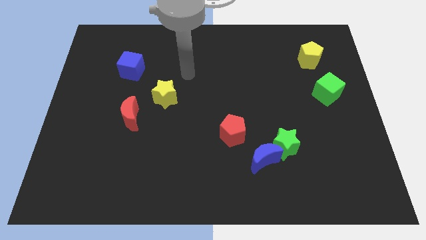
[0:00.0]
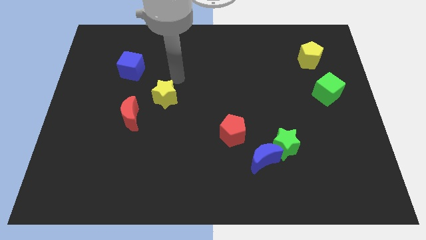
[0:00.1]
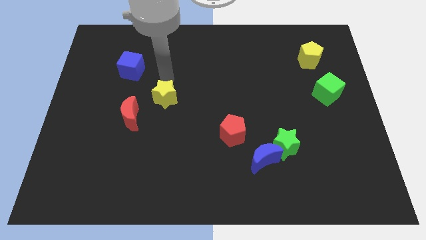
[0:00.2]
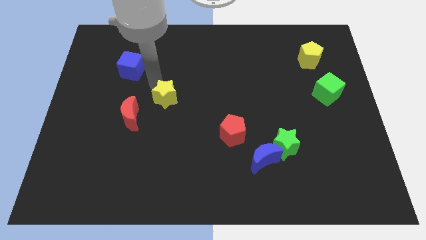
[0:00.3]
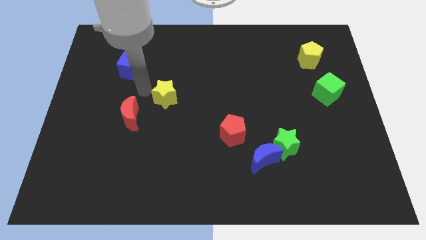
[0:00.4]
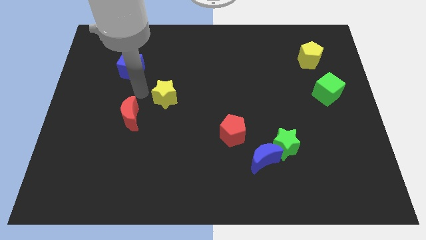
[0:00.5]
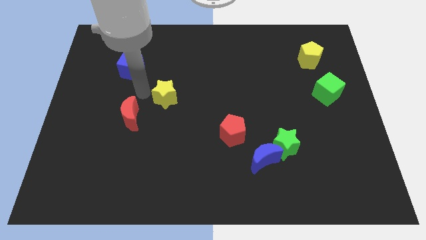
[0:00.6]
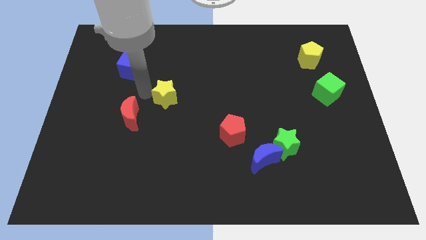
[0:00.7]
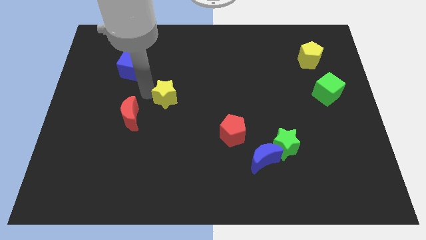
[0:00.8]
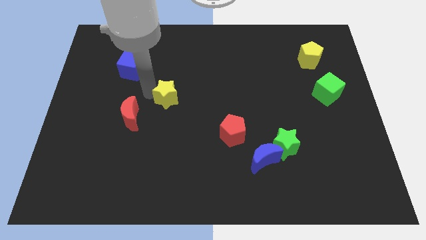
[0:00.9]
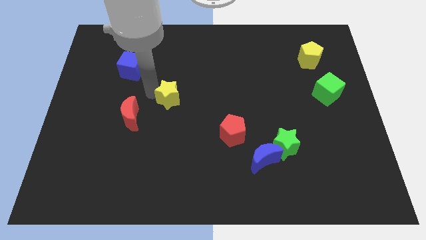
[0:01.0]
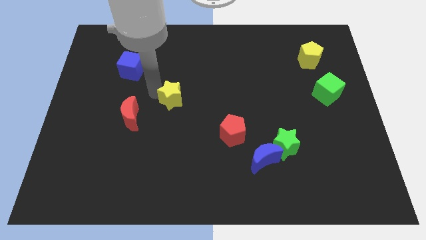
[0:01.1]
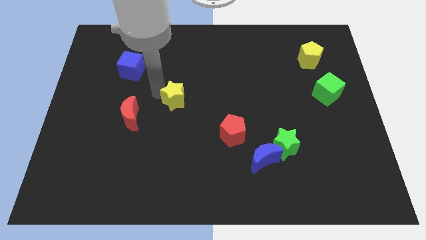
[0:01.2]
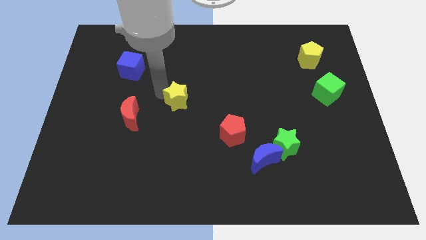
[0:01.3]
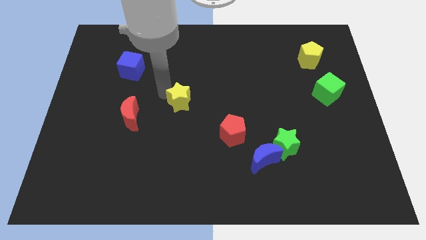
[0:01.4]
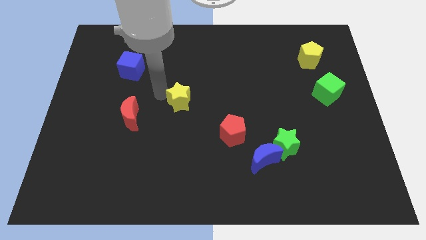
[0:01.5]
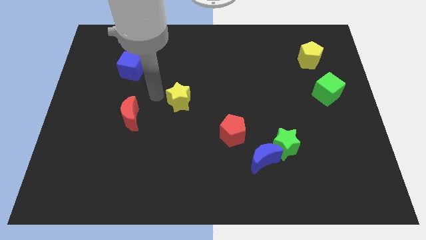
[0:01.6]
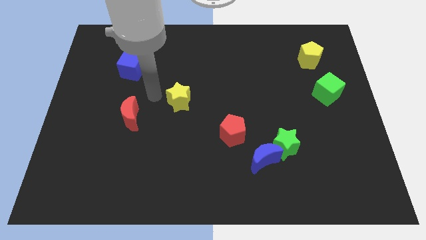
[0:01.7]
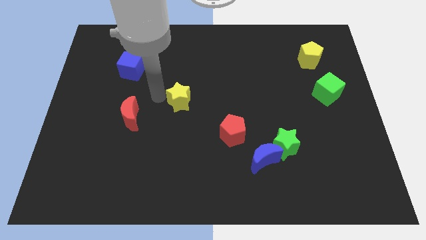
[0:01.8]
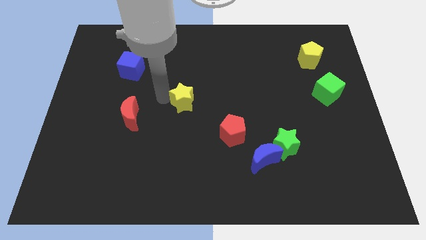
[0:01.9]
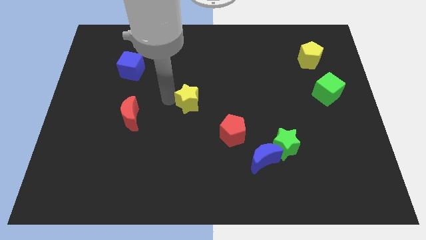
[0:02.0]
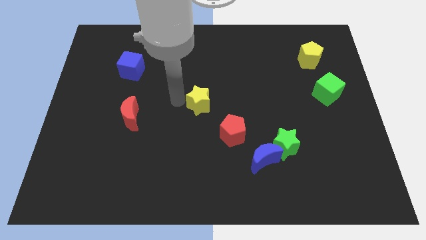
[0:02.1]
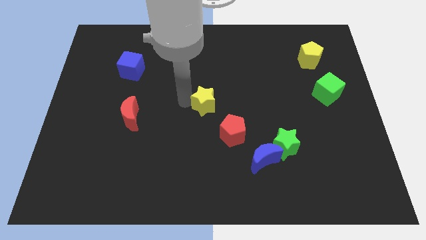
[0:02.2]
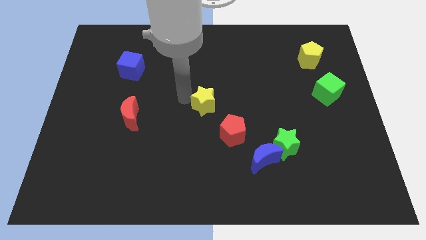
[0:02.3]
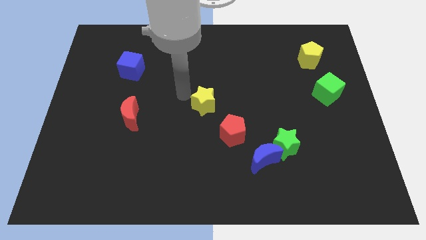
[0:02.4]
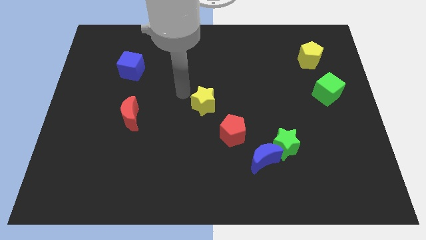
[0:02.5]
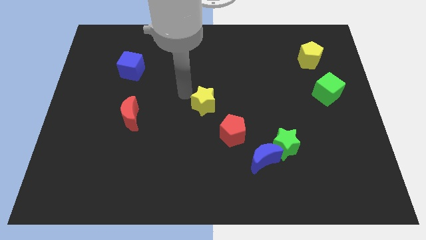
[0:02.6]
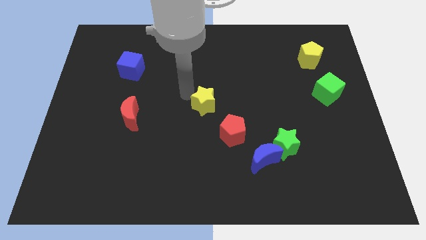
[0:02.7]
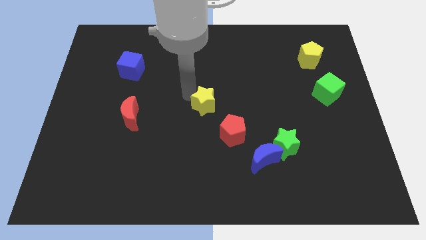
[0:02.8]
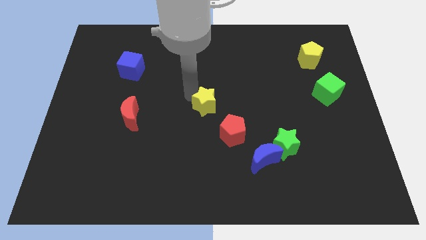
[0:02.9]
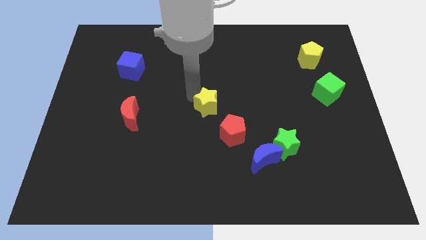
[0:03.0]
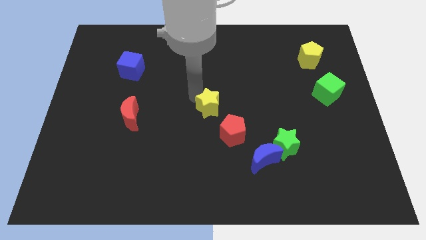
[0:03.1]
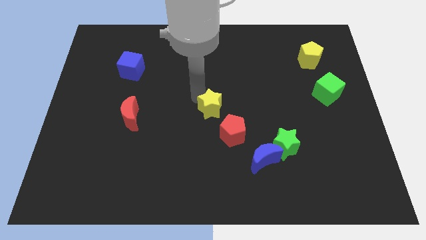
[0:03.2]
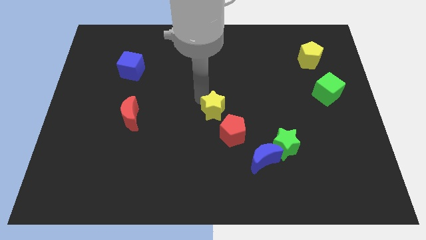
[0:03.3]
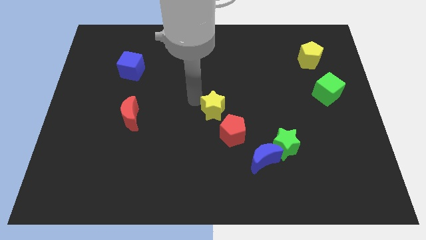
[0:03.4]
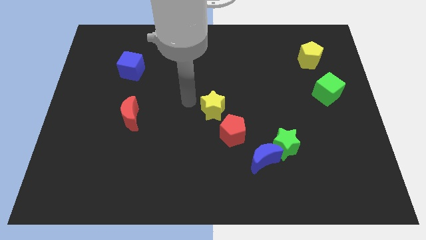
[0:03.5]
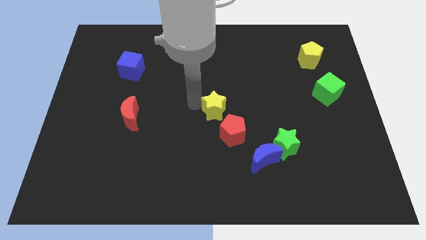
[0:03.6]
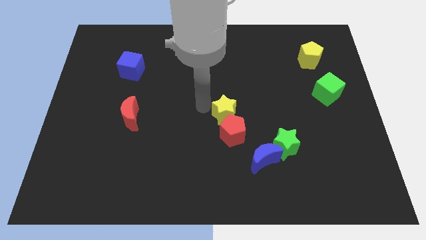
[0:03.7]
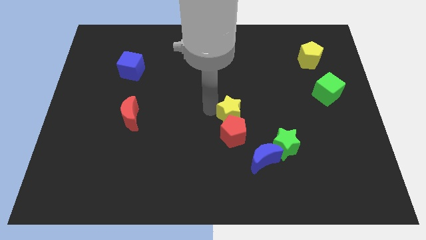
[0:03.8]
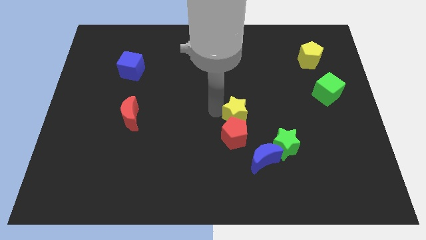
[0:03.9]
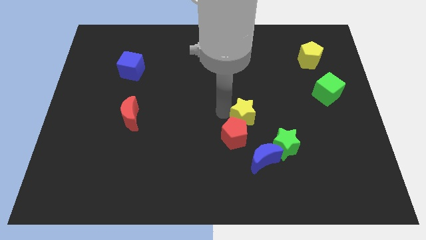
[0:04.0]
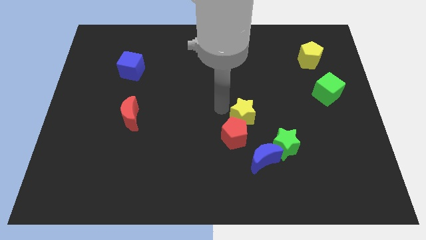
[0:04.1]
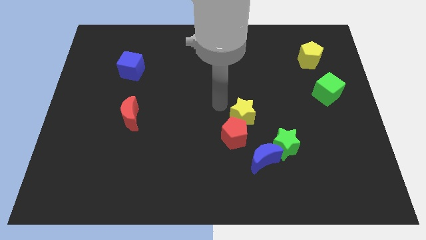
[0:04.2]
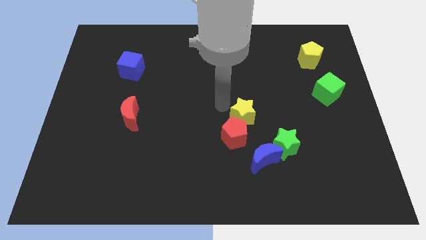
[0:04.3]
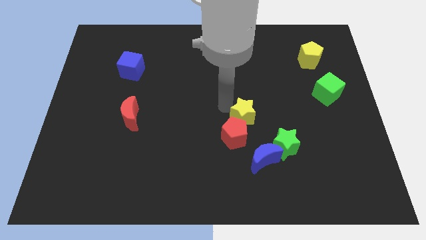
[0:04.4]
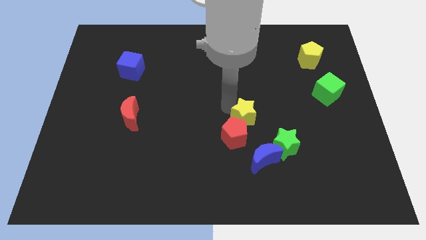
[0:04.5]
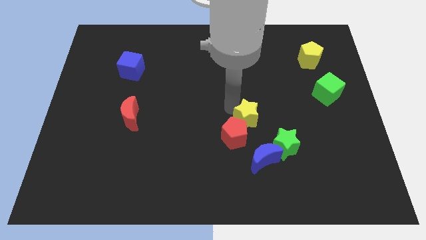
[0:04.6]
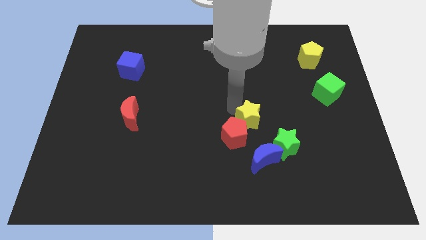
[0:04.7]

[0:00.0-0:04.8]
slide the yellow star just right of the red pentagon

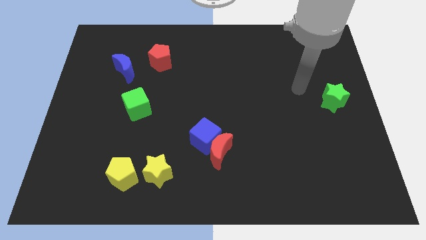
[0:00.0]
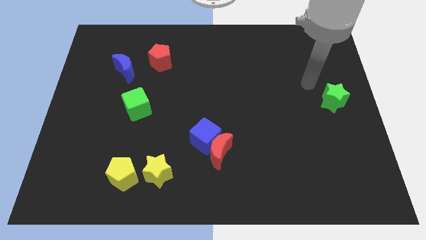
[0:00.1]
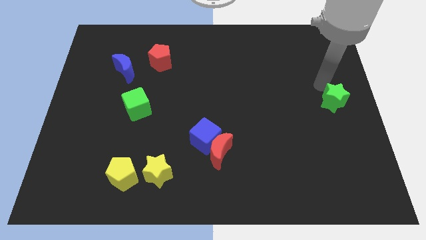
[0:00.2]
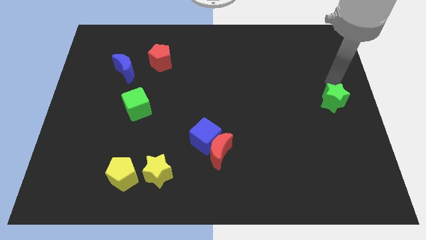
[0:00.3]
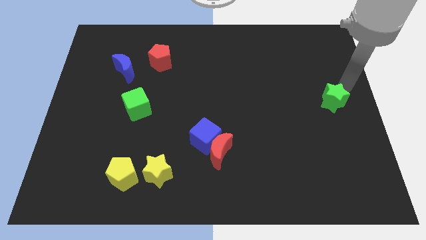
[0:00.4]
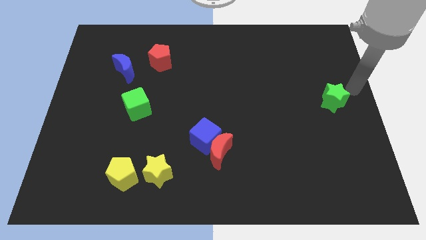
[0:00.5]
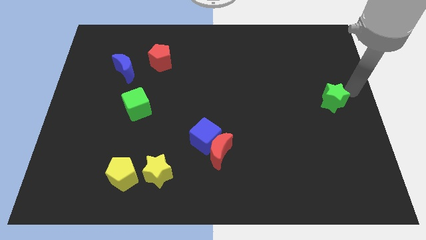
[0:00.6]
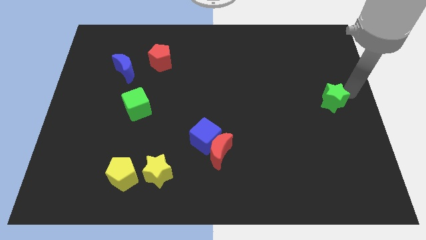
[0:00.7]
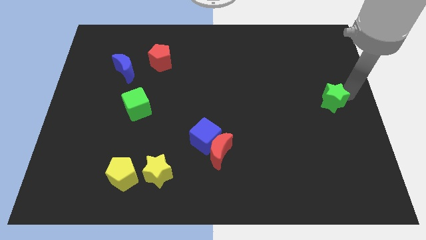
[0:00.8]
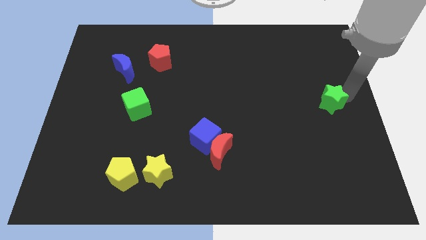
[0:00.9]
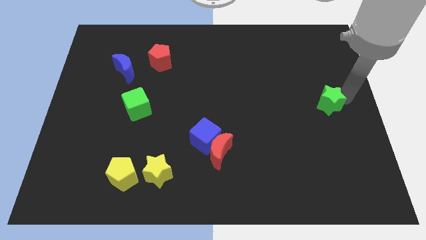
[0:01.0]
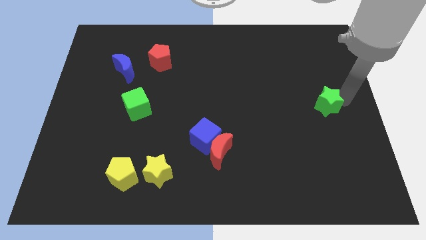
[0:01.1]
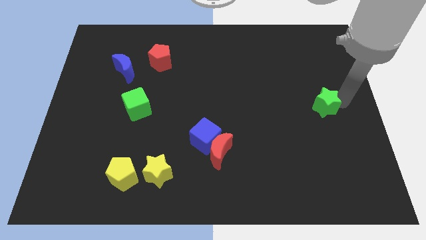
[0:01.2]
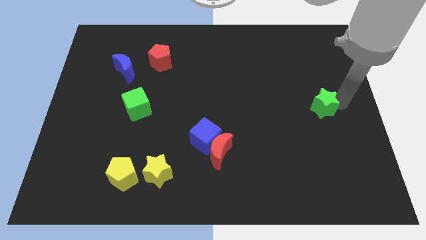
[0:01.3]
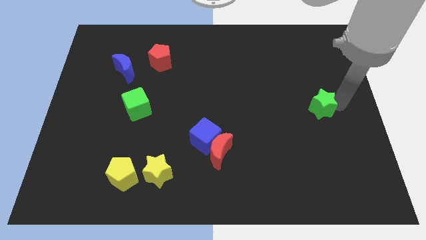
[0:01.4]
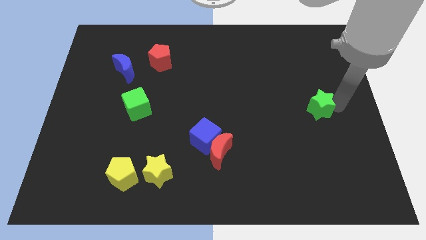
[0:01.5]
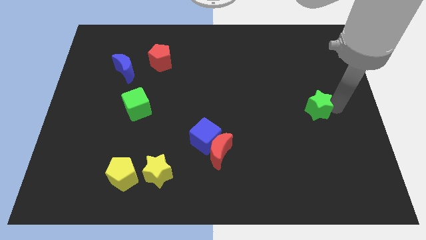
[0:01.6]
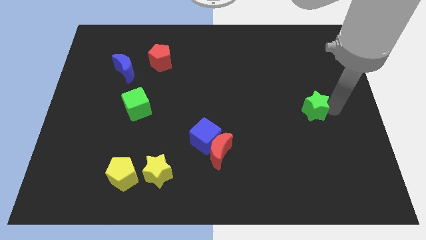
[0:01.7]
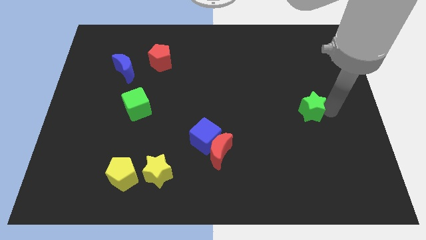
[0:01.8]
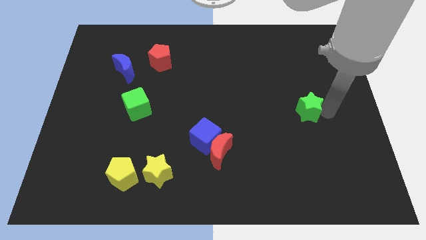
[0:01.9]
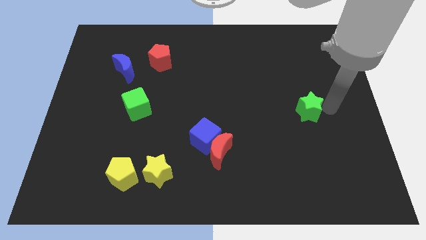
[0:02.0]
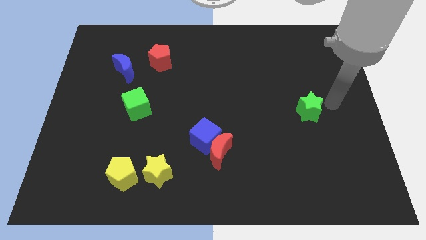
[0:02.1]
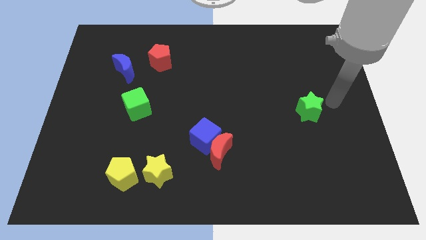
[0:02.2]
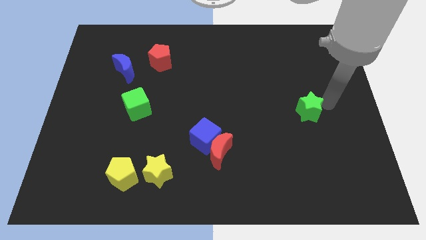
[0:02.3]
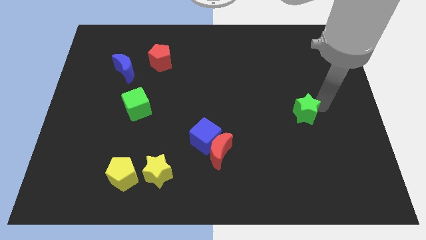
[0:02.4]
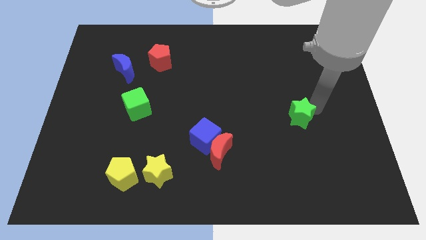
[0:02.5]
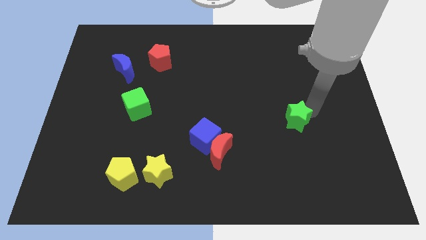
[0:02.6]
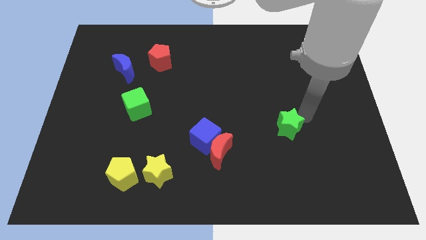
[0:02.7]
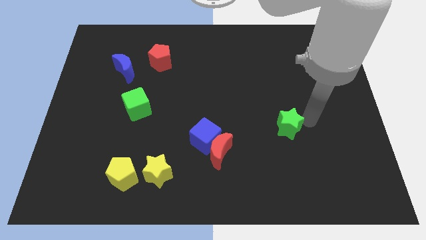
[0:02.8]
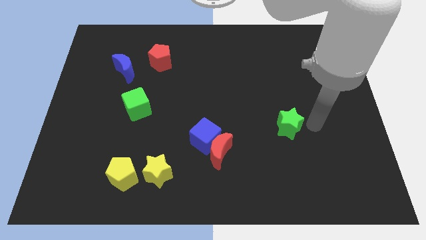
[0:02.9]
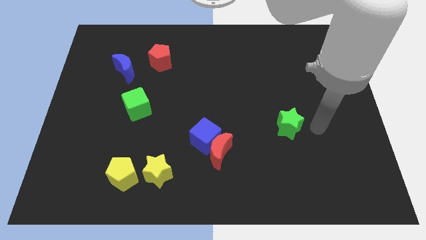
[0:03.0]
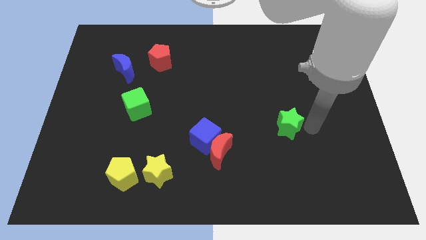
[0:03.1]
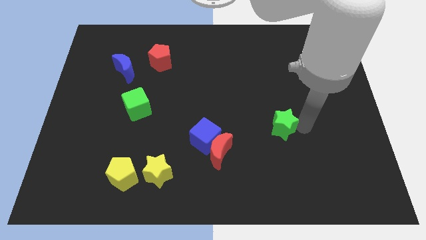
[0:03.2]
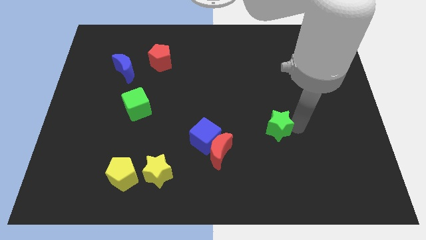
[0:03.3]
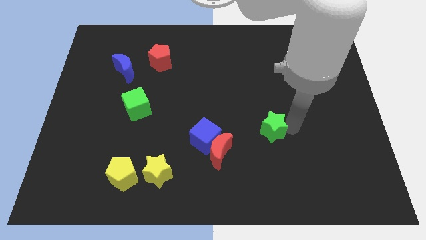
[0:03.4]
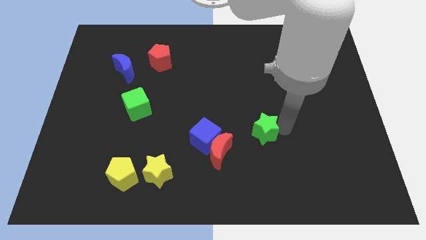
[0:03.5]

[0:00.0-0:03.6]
put the green star to the top right of the red moon
